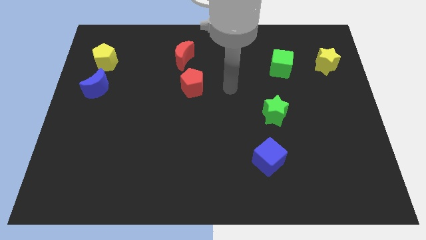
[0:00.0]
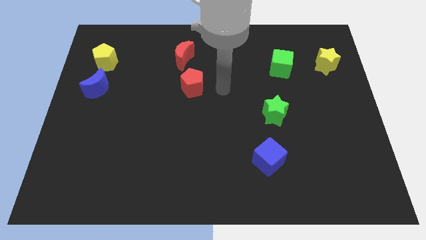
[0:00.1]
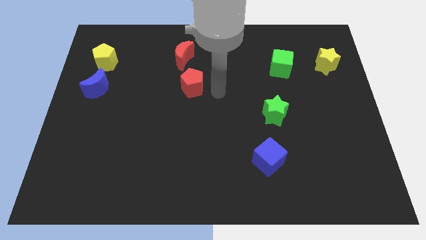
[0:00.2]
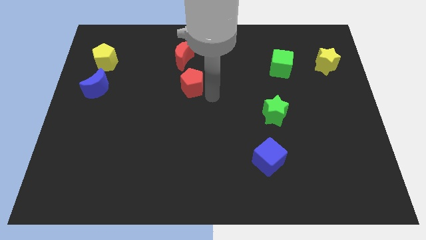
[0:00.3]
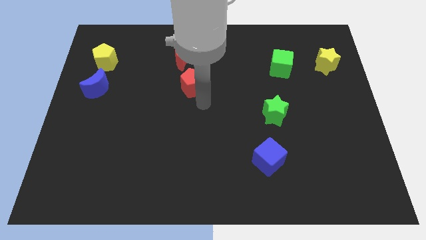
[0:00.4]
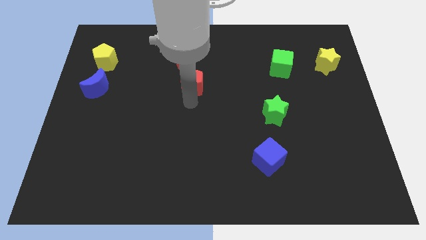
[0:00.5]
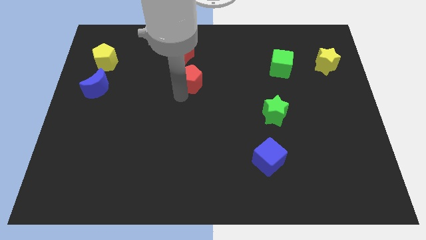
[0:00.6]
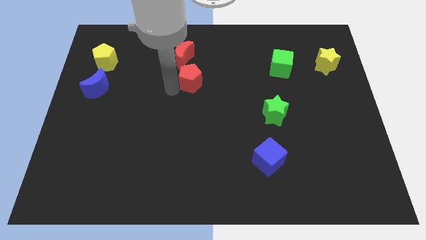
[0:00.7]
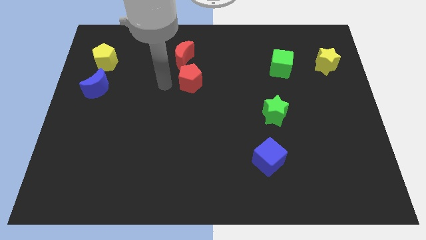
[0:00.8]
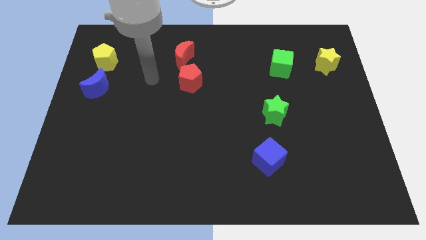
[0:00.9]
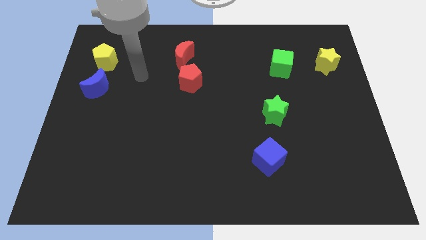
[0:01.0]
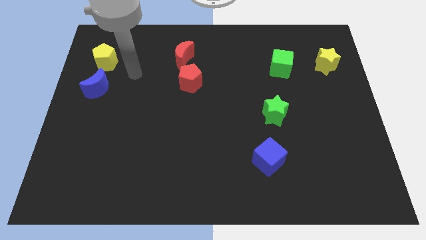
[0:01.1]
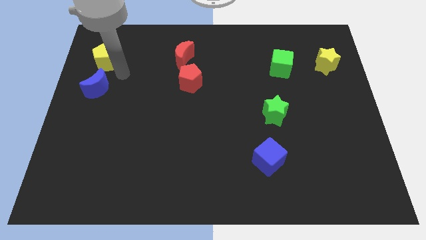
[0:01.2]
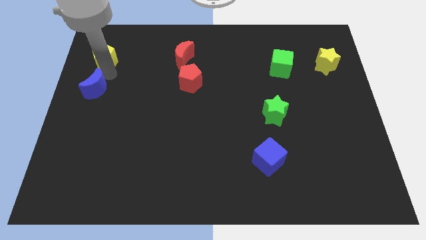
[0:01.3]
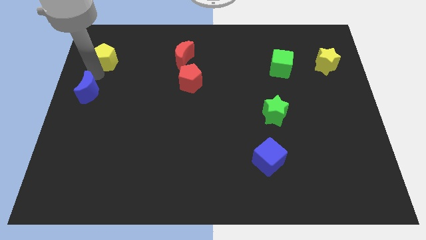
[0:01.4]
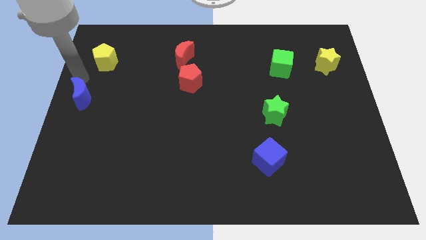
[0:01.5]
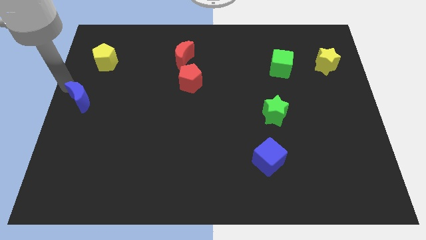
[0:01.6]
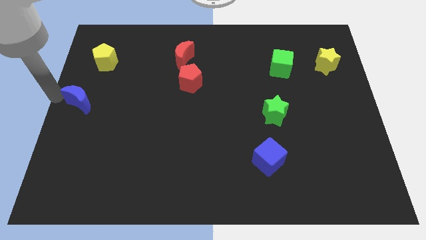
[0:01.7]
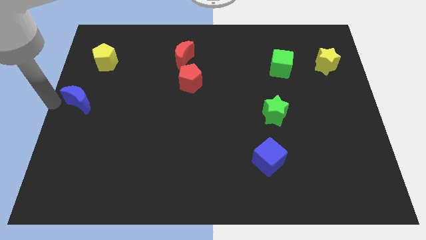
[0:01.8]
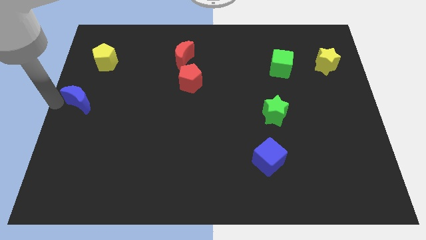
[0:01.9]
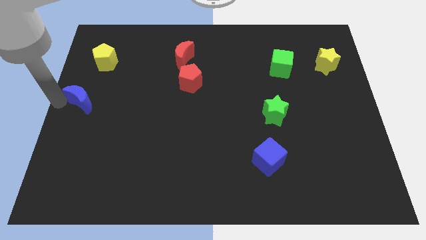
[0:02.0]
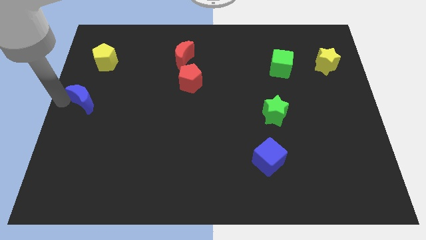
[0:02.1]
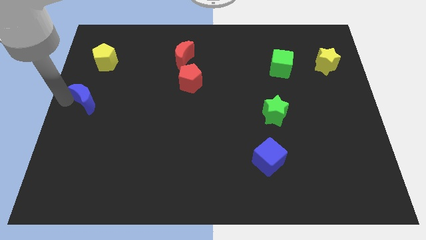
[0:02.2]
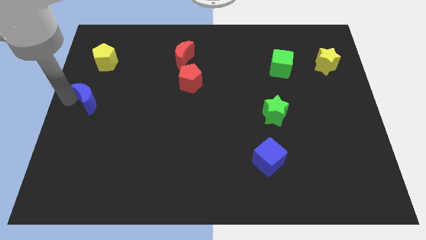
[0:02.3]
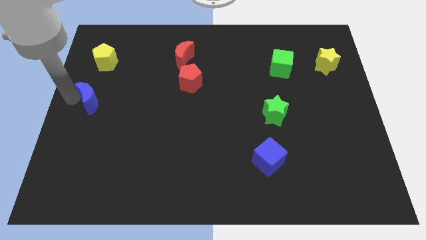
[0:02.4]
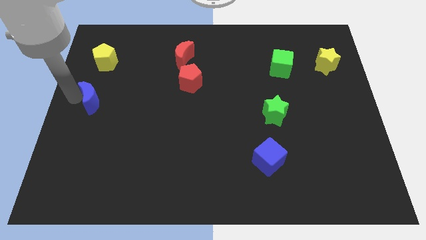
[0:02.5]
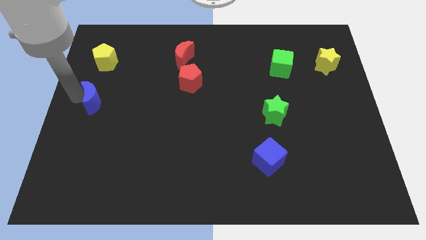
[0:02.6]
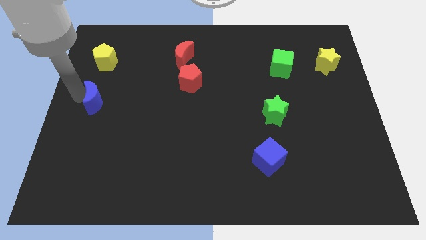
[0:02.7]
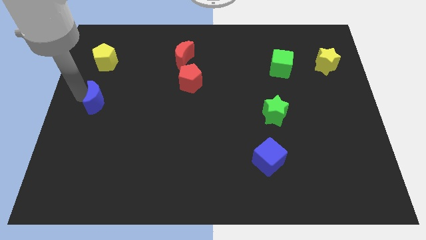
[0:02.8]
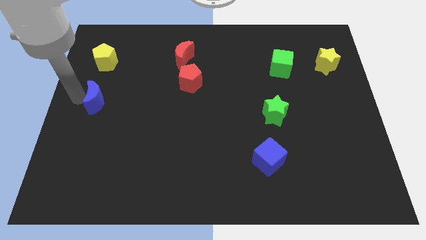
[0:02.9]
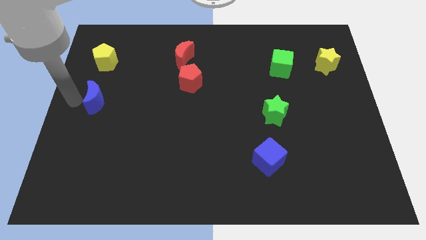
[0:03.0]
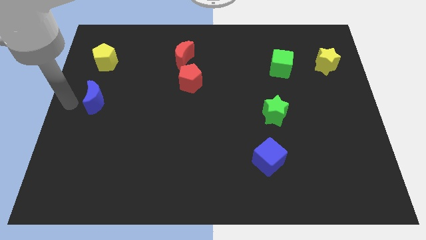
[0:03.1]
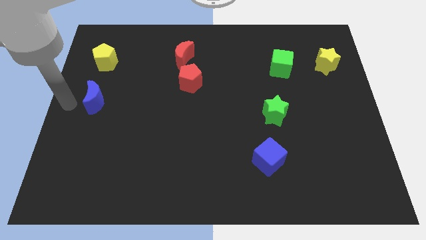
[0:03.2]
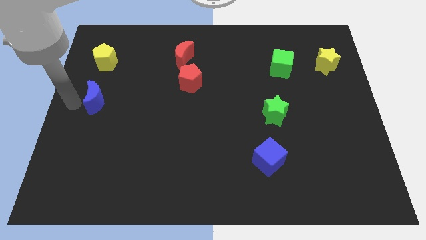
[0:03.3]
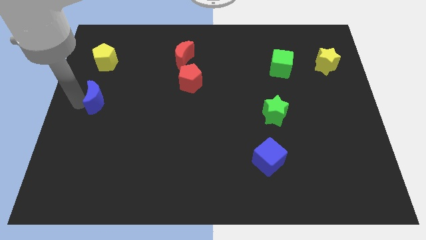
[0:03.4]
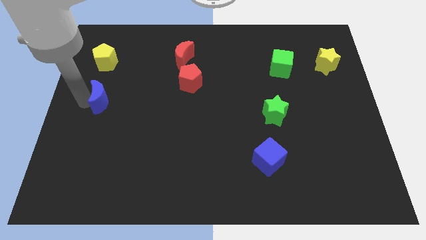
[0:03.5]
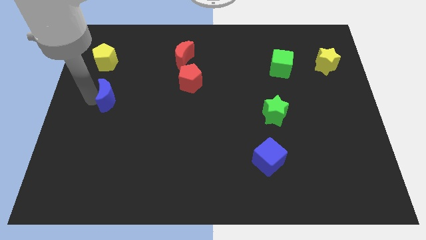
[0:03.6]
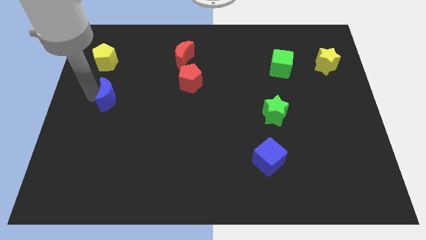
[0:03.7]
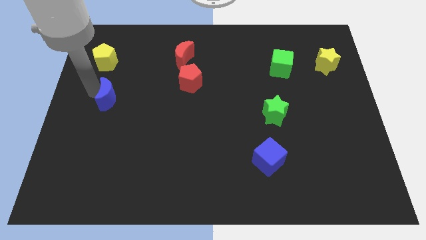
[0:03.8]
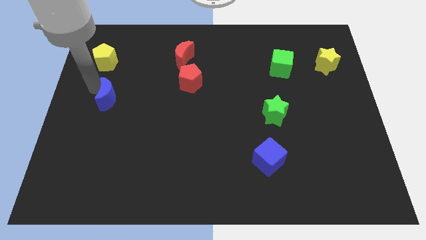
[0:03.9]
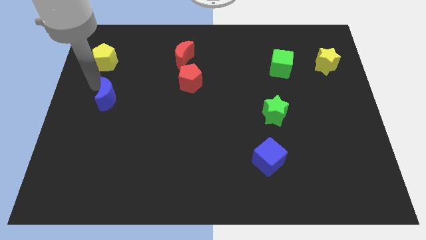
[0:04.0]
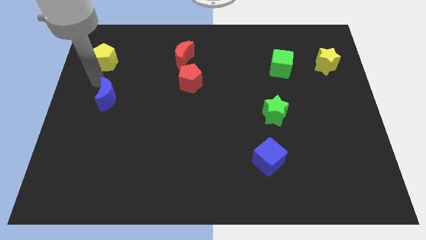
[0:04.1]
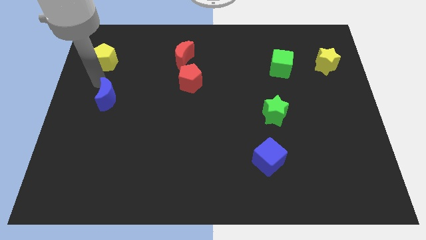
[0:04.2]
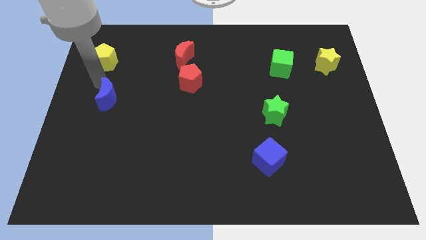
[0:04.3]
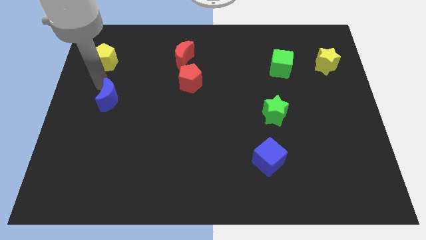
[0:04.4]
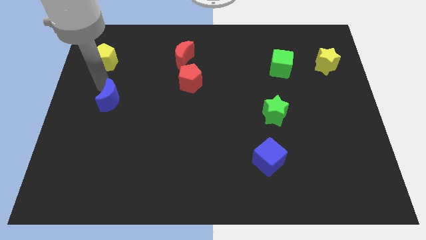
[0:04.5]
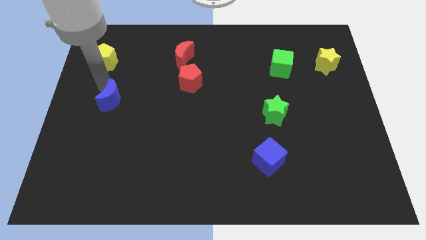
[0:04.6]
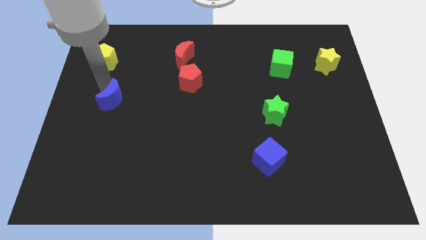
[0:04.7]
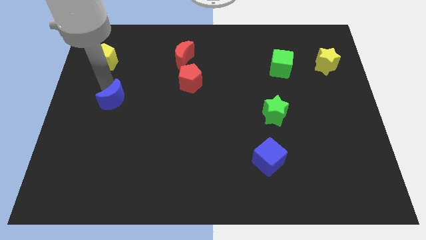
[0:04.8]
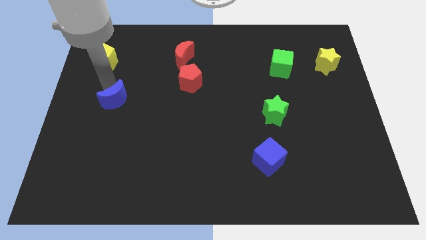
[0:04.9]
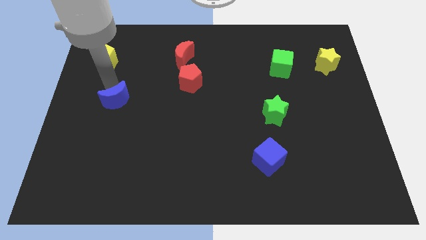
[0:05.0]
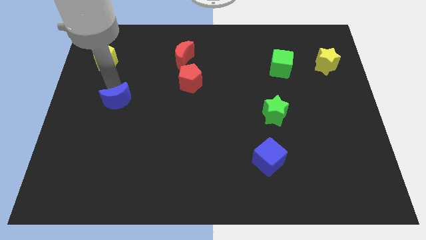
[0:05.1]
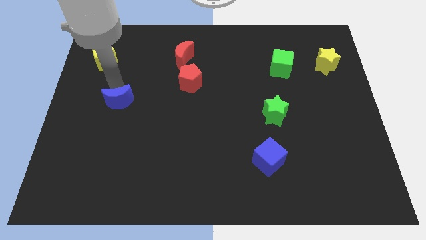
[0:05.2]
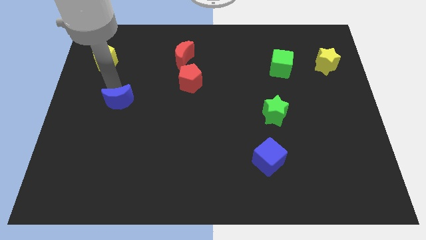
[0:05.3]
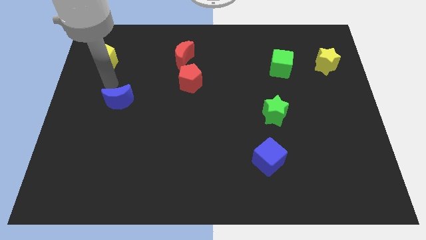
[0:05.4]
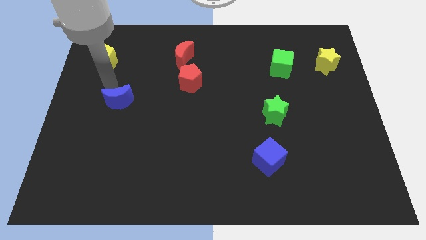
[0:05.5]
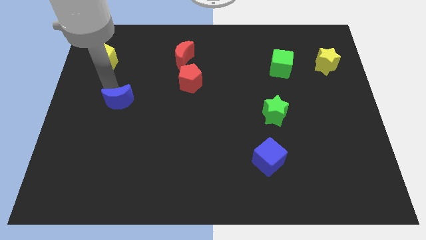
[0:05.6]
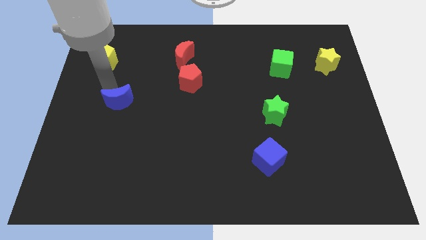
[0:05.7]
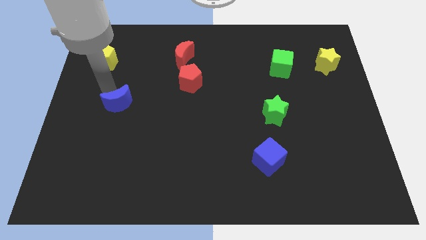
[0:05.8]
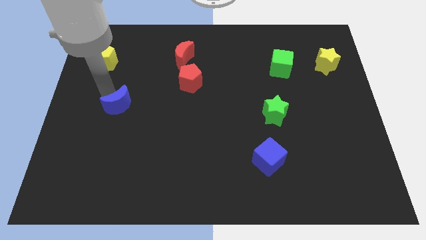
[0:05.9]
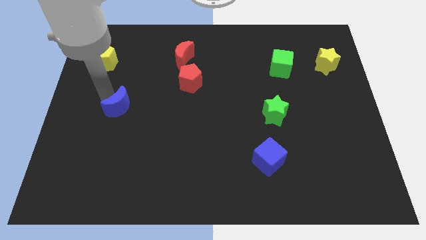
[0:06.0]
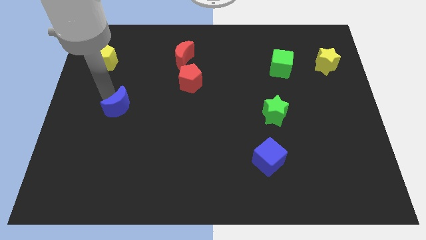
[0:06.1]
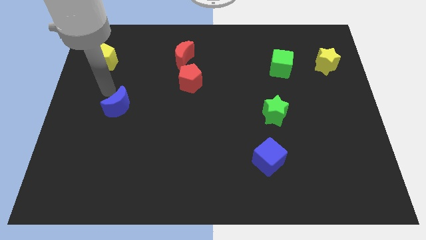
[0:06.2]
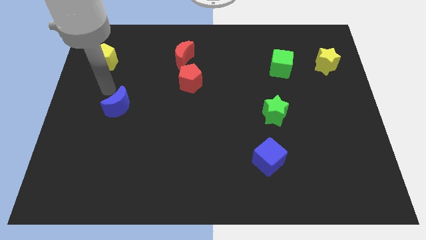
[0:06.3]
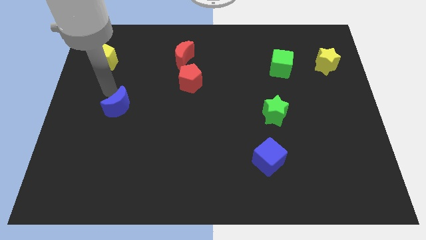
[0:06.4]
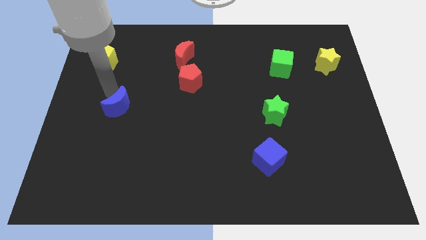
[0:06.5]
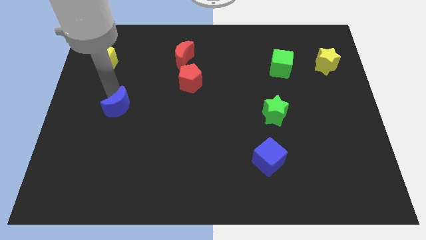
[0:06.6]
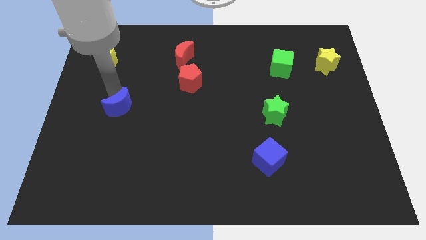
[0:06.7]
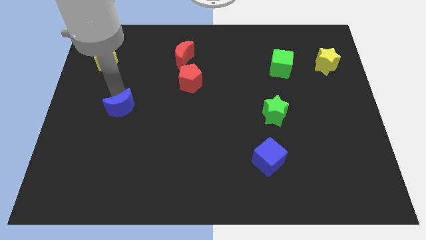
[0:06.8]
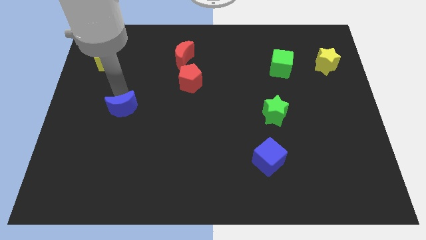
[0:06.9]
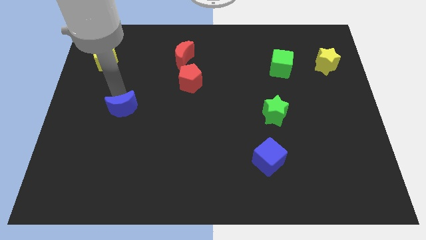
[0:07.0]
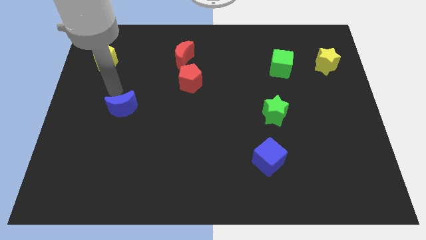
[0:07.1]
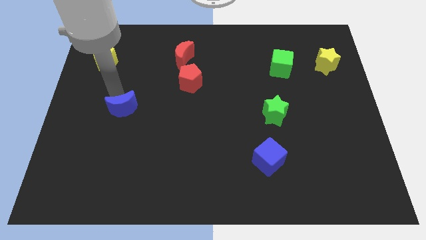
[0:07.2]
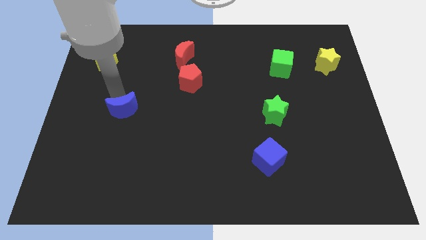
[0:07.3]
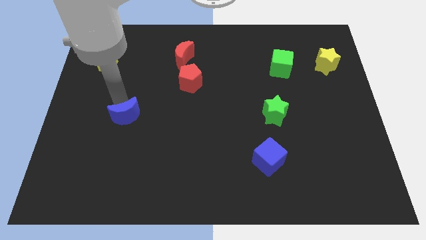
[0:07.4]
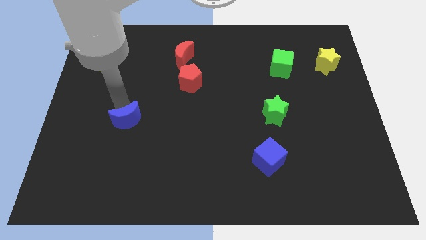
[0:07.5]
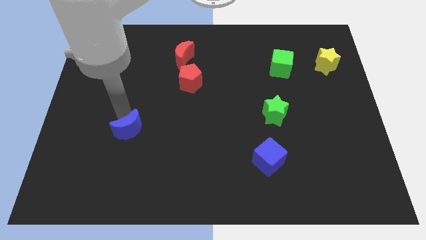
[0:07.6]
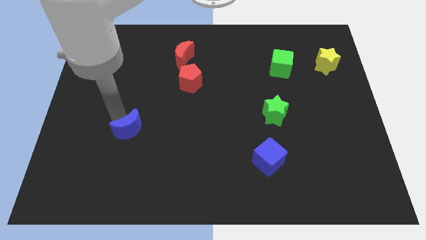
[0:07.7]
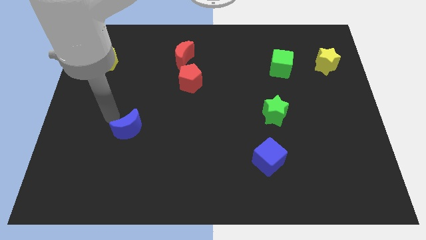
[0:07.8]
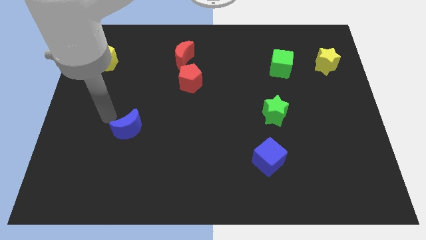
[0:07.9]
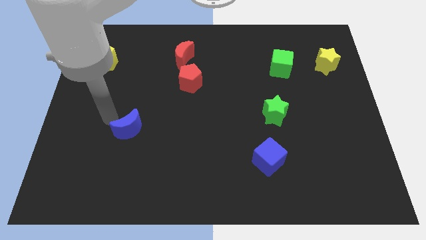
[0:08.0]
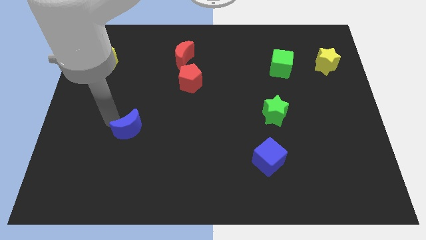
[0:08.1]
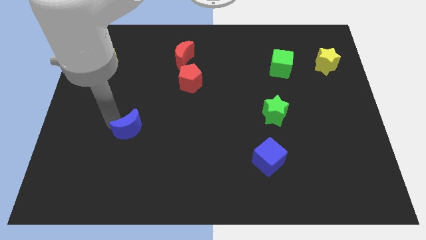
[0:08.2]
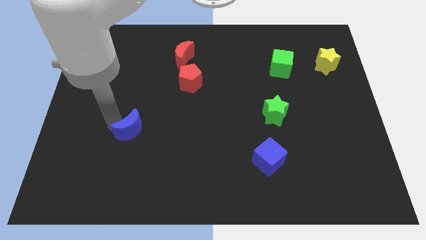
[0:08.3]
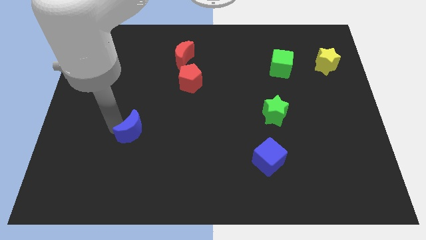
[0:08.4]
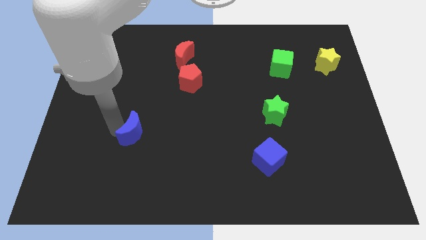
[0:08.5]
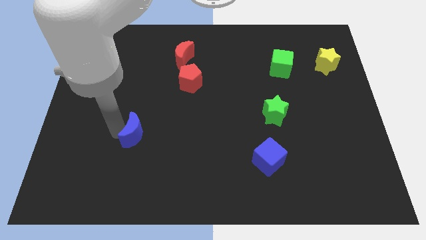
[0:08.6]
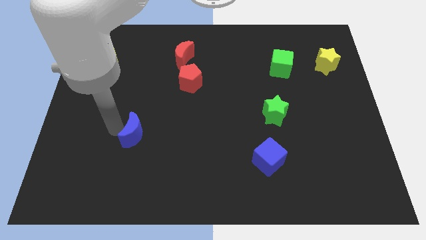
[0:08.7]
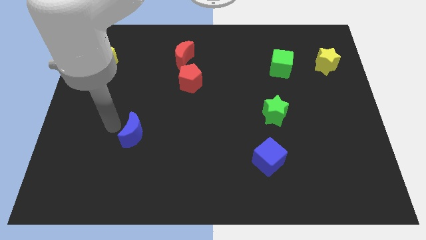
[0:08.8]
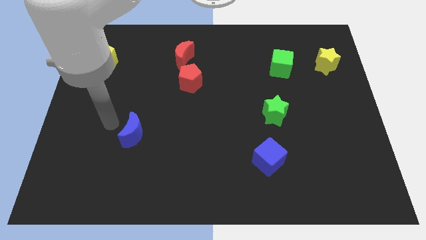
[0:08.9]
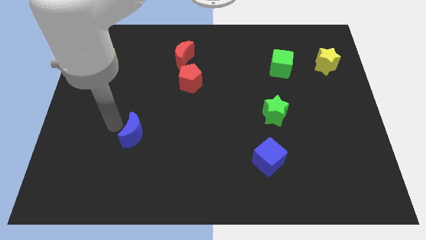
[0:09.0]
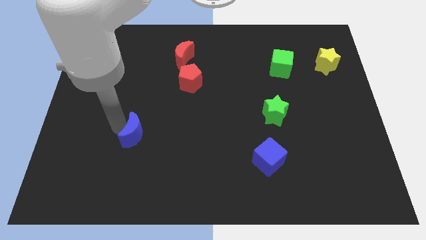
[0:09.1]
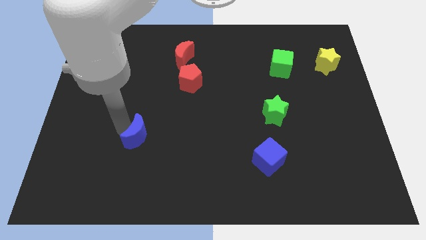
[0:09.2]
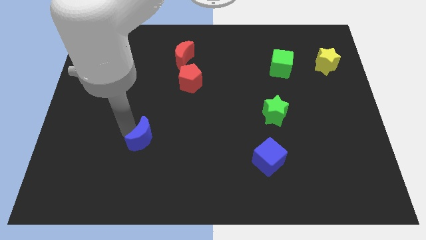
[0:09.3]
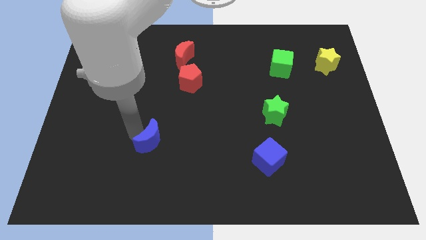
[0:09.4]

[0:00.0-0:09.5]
push the blue moon down and right
